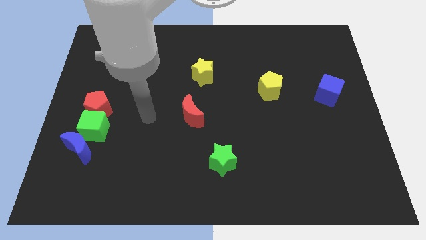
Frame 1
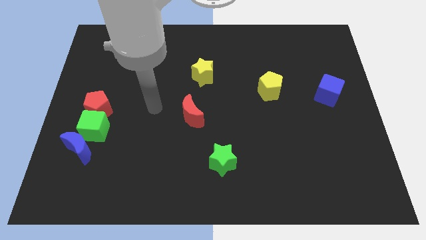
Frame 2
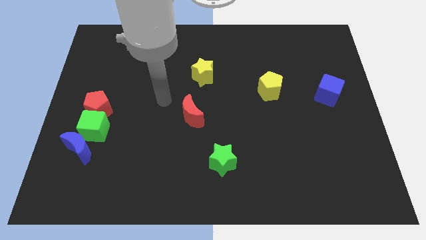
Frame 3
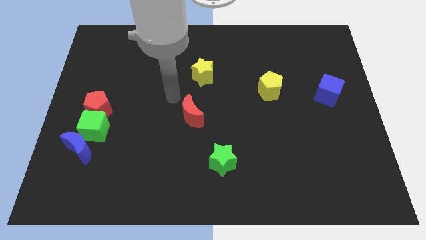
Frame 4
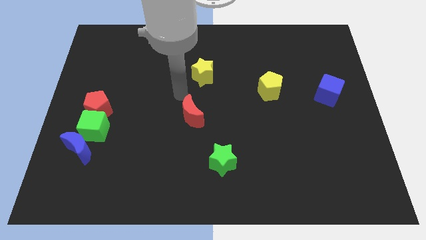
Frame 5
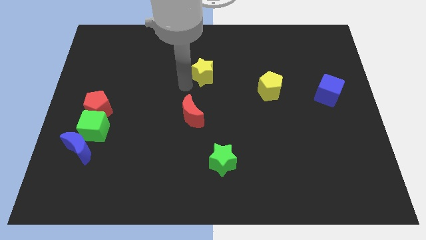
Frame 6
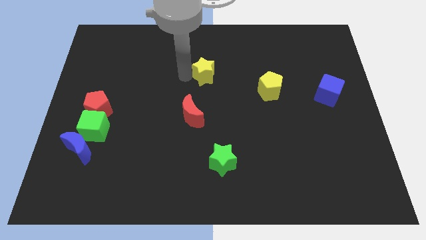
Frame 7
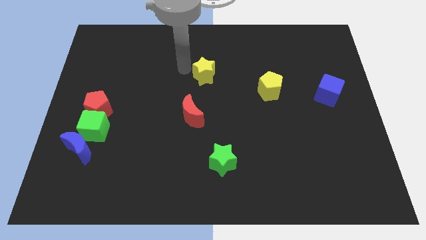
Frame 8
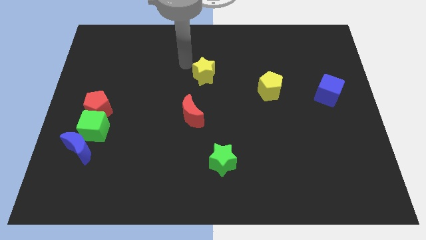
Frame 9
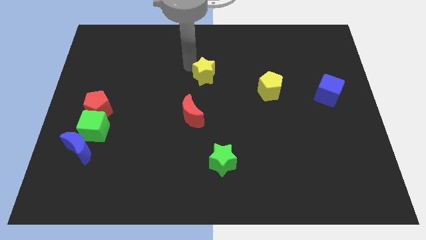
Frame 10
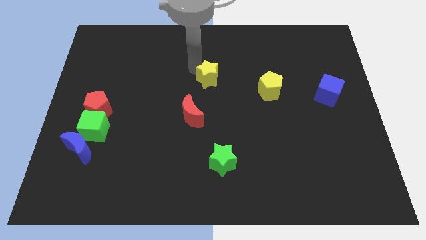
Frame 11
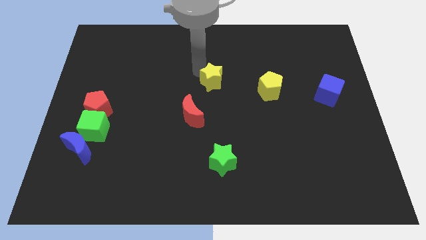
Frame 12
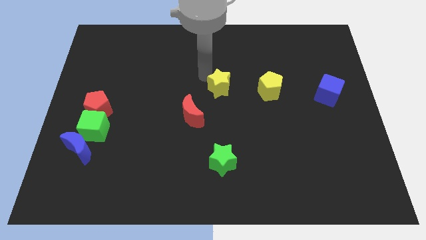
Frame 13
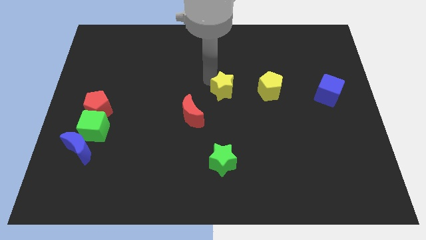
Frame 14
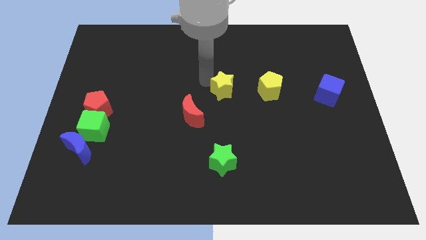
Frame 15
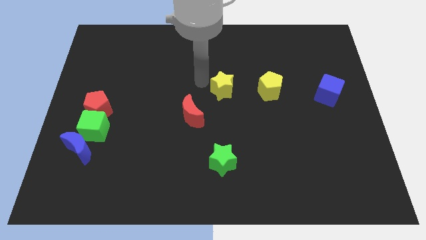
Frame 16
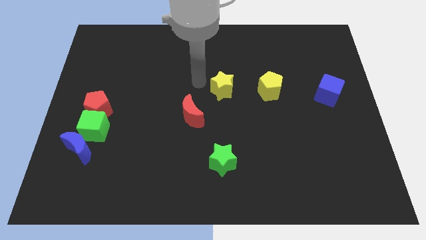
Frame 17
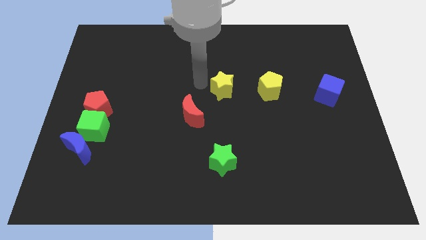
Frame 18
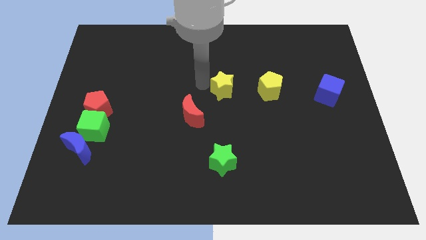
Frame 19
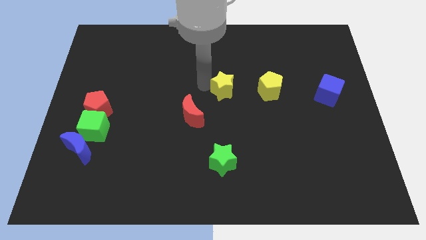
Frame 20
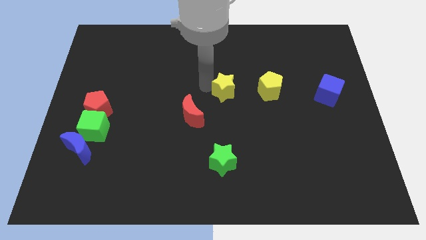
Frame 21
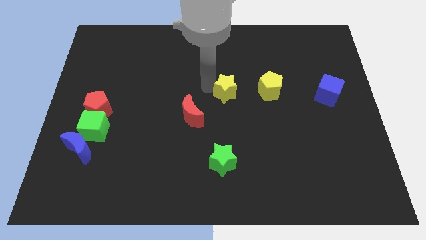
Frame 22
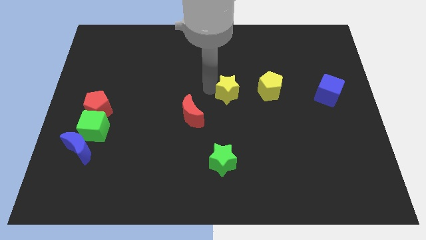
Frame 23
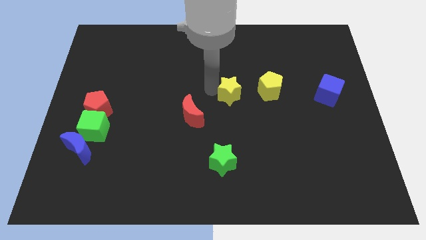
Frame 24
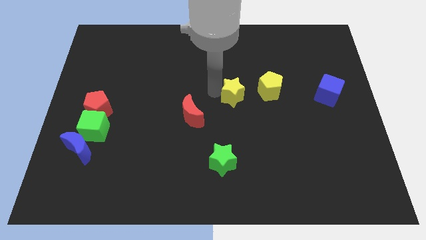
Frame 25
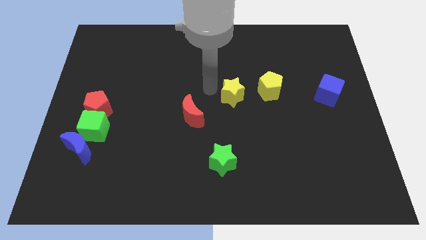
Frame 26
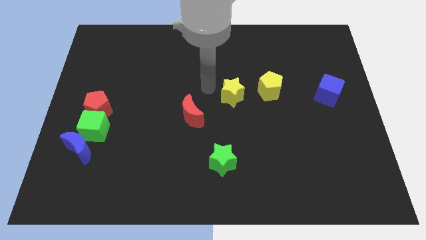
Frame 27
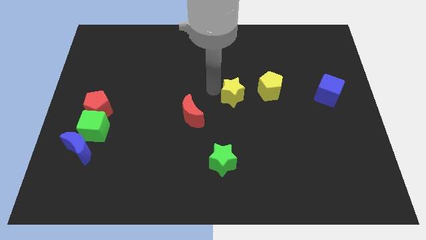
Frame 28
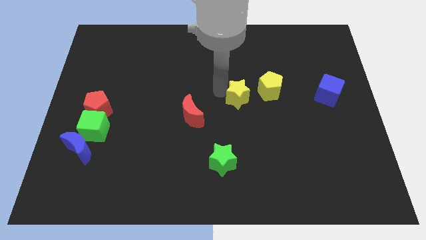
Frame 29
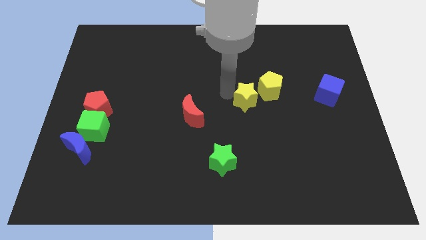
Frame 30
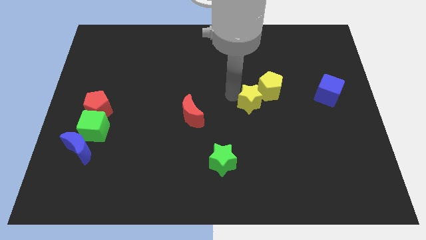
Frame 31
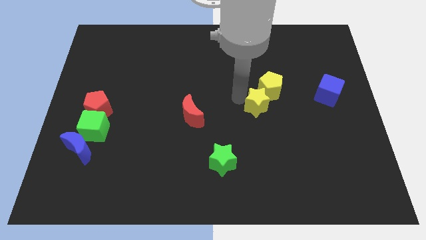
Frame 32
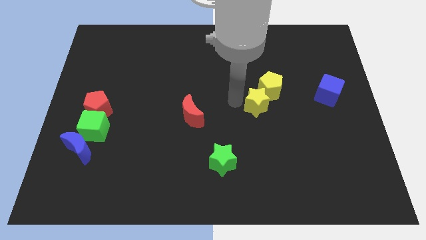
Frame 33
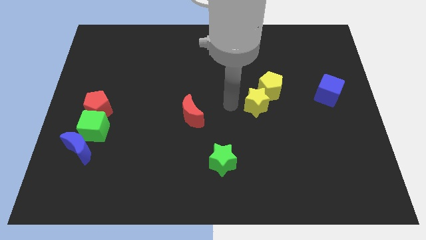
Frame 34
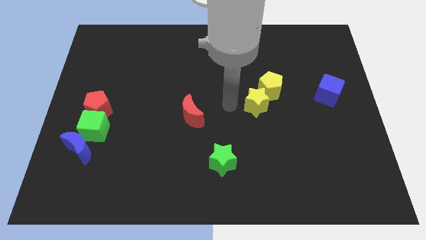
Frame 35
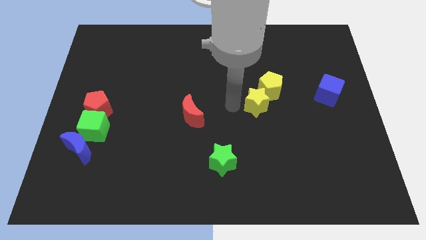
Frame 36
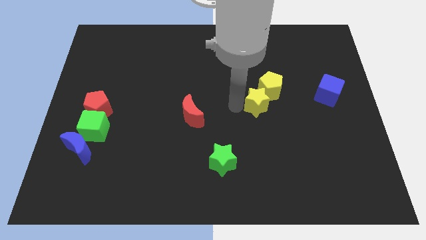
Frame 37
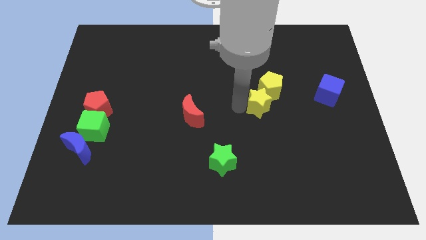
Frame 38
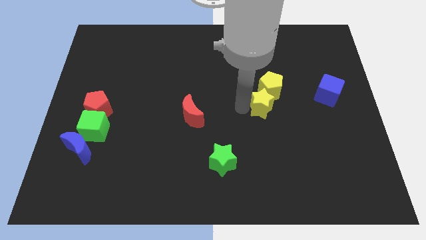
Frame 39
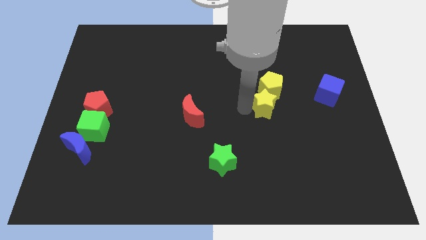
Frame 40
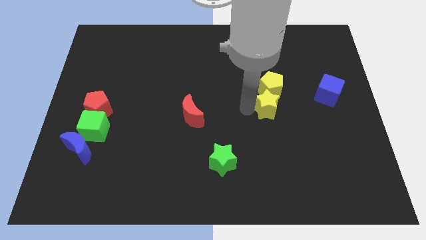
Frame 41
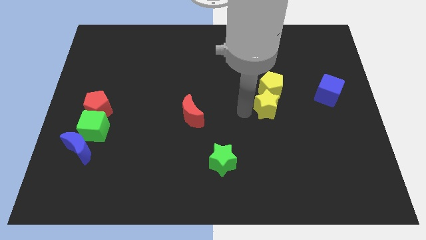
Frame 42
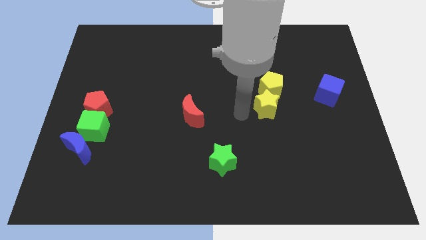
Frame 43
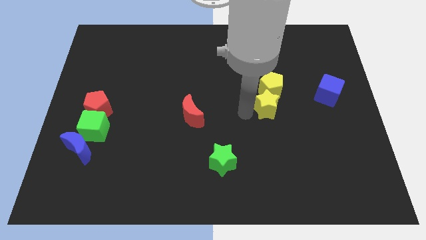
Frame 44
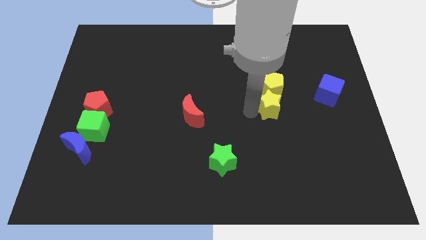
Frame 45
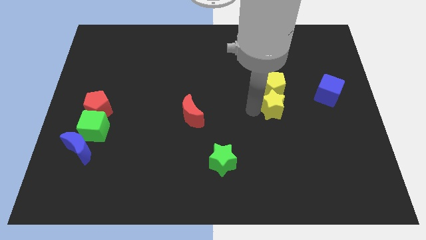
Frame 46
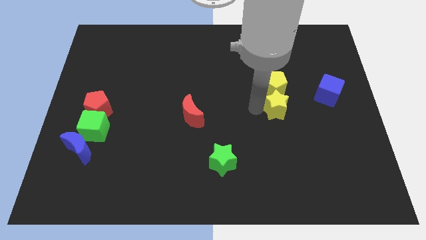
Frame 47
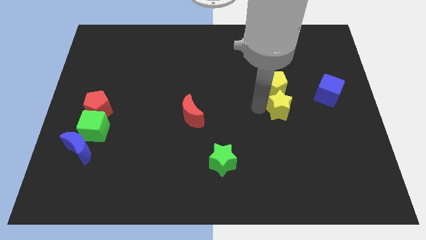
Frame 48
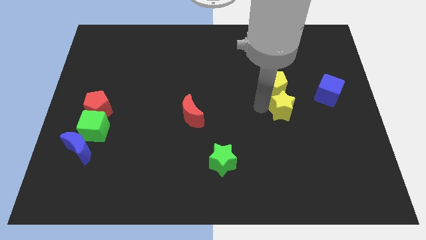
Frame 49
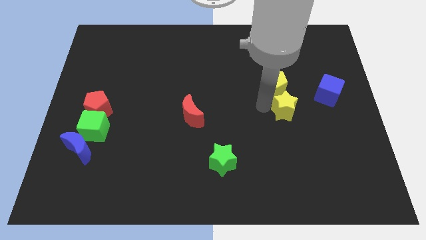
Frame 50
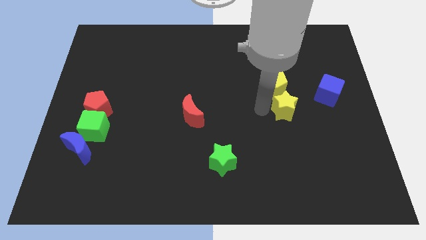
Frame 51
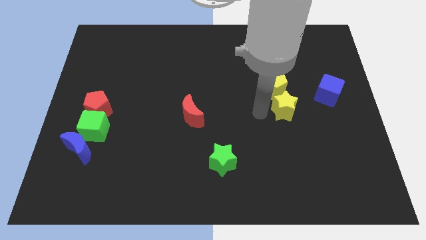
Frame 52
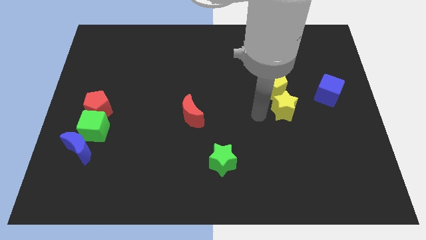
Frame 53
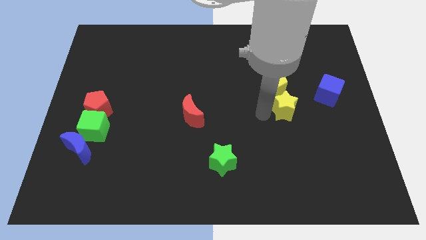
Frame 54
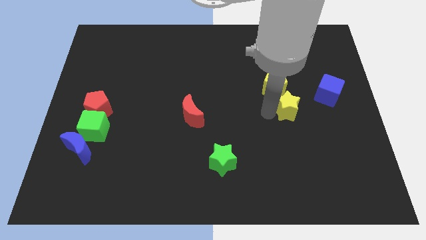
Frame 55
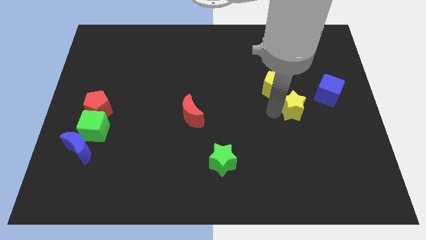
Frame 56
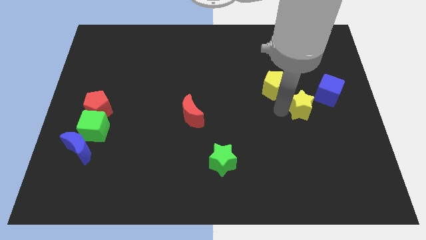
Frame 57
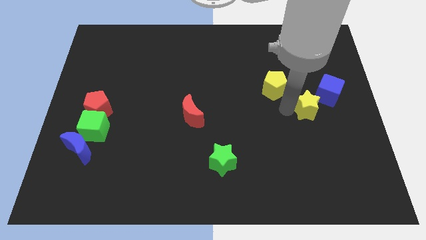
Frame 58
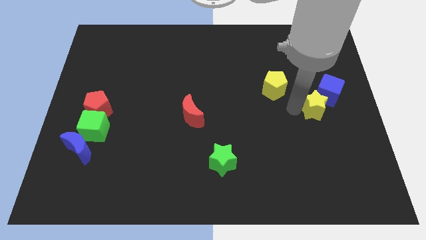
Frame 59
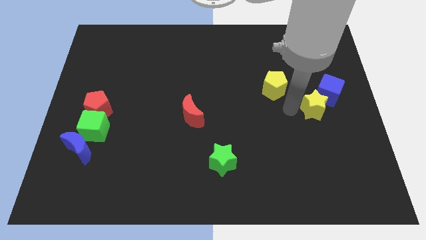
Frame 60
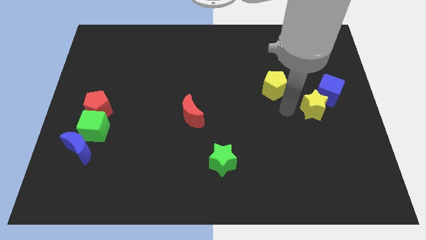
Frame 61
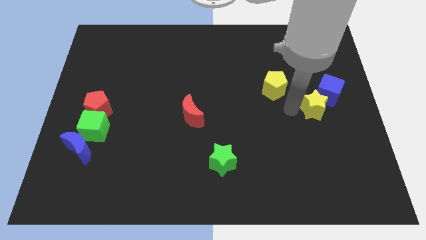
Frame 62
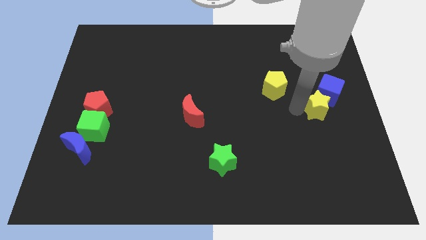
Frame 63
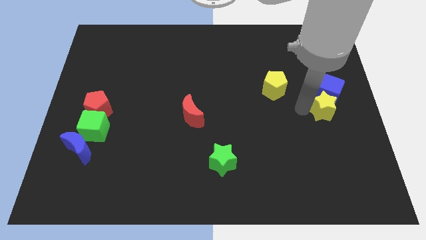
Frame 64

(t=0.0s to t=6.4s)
move the yellow star to the right side of the board
